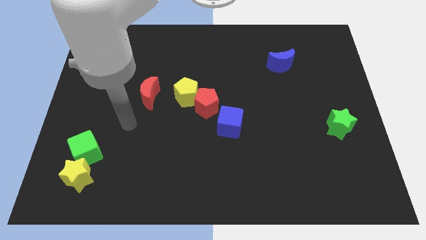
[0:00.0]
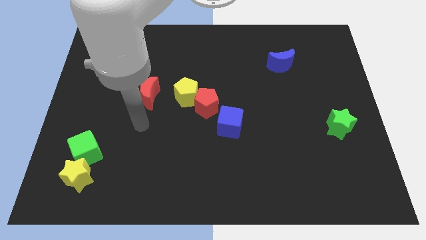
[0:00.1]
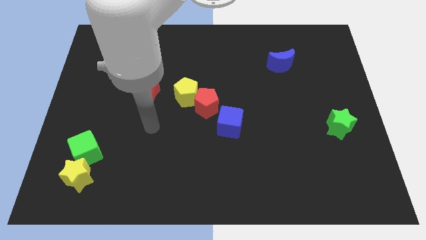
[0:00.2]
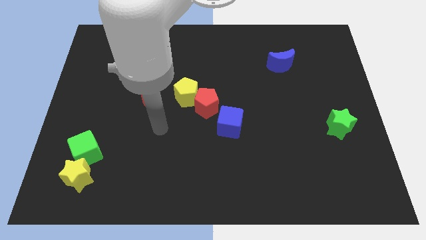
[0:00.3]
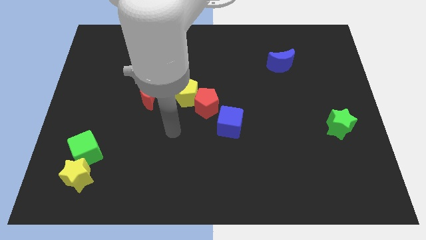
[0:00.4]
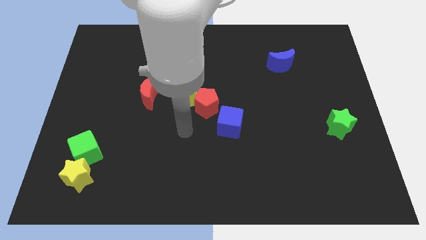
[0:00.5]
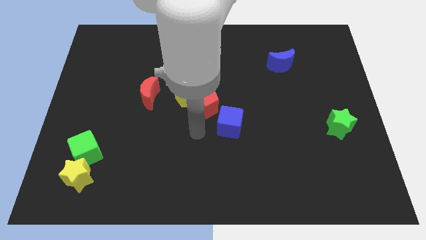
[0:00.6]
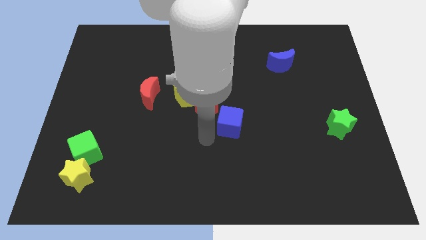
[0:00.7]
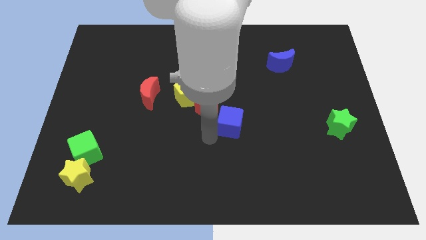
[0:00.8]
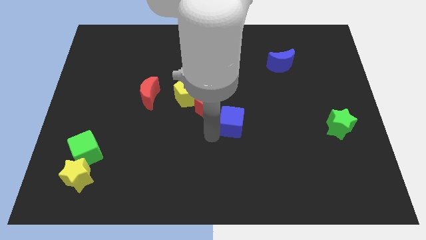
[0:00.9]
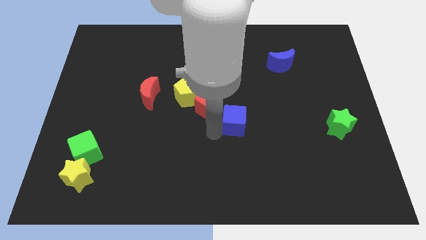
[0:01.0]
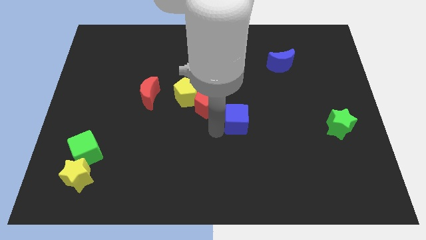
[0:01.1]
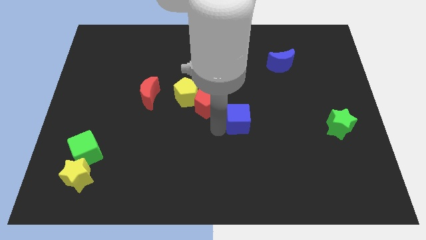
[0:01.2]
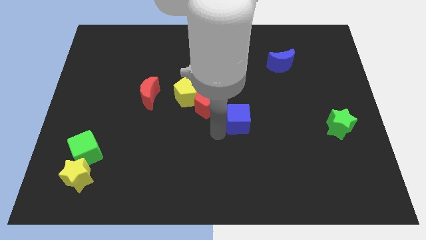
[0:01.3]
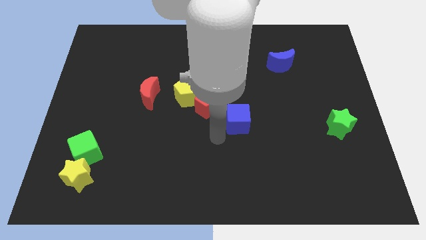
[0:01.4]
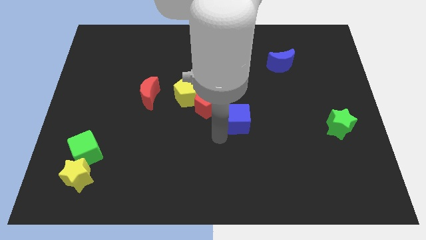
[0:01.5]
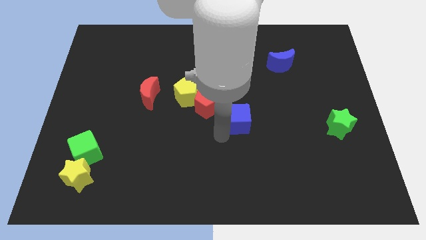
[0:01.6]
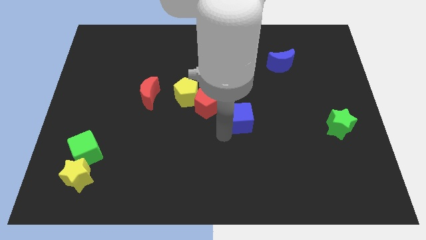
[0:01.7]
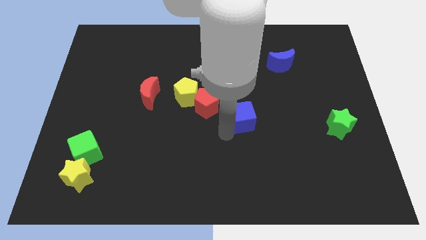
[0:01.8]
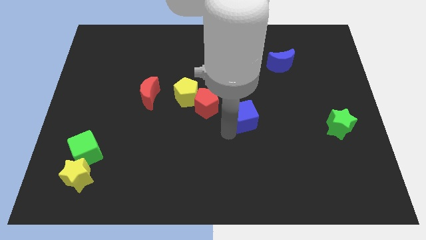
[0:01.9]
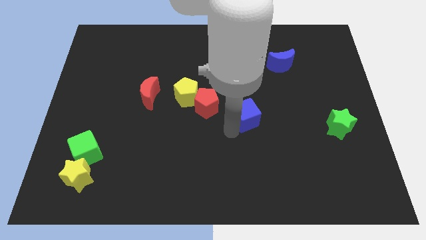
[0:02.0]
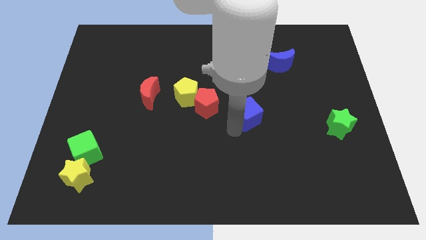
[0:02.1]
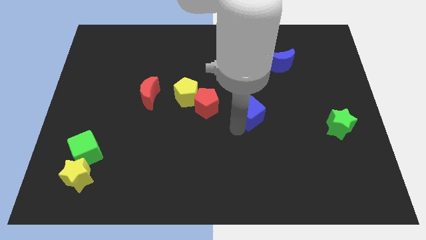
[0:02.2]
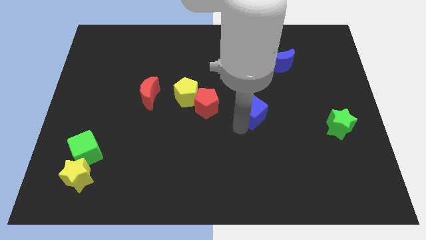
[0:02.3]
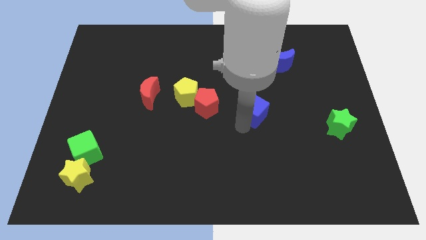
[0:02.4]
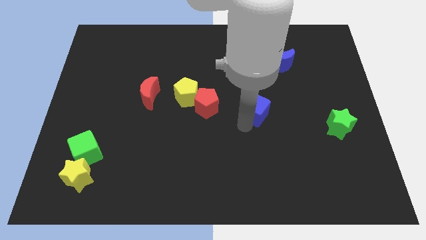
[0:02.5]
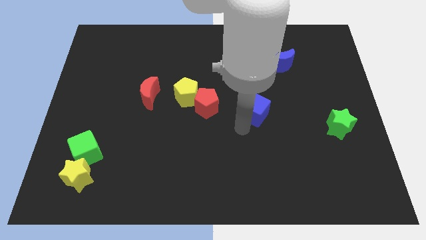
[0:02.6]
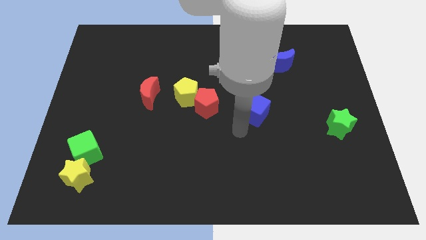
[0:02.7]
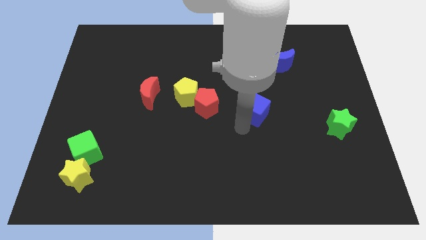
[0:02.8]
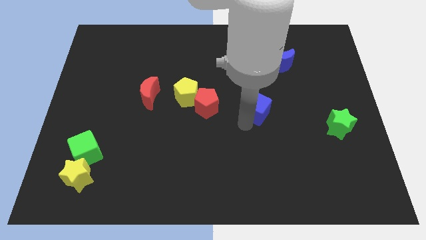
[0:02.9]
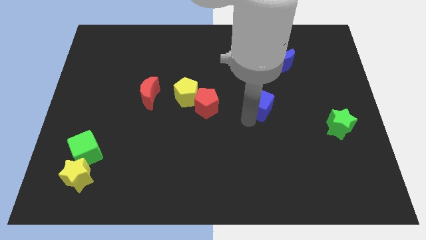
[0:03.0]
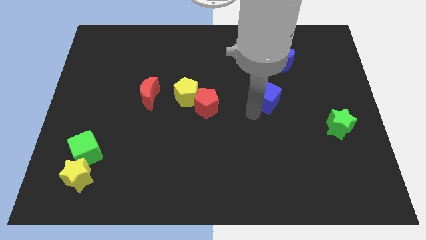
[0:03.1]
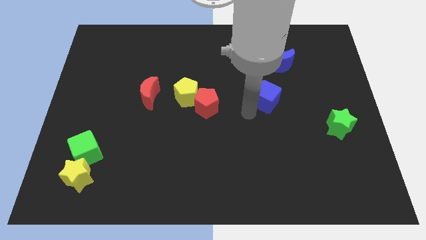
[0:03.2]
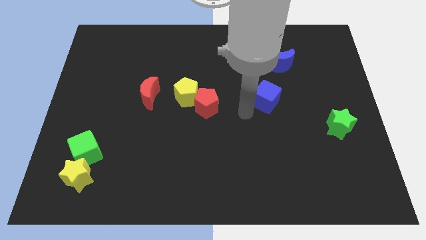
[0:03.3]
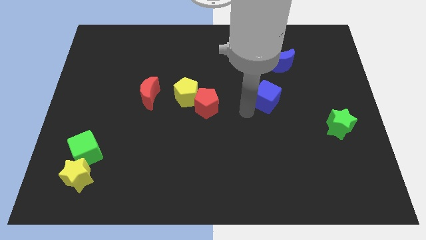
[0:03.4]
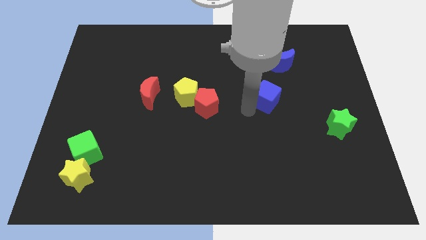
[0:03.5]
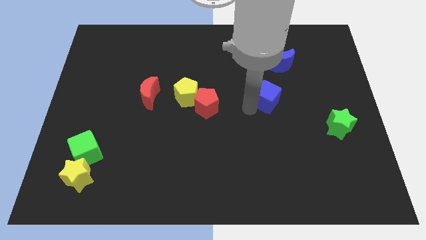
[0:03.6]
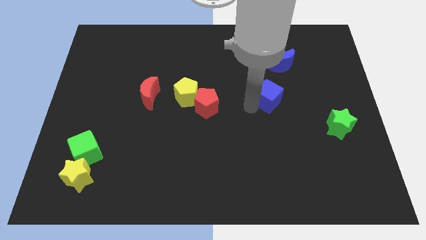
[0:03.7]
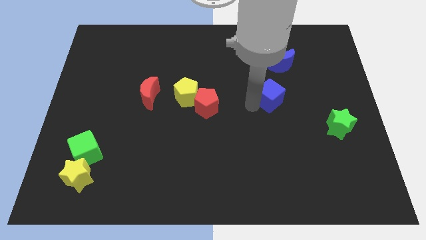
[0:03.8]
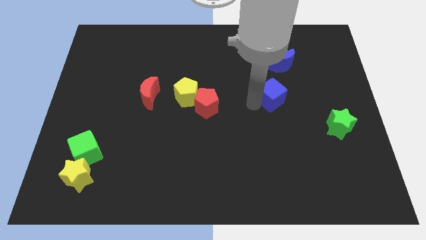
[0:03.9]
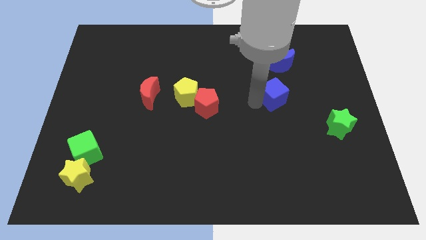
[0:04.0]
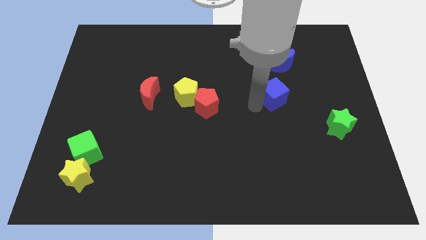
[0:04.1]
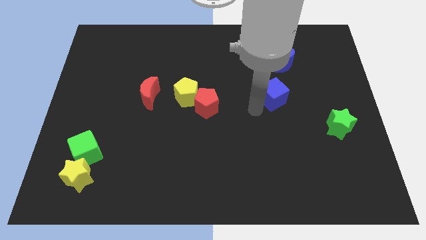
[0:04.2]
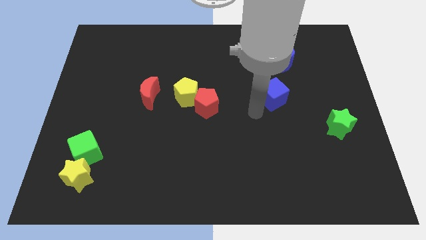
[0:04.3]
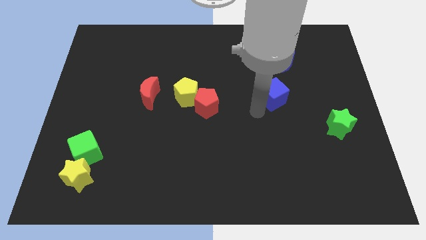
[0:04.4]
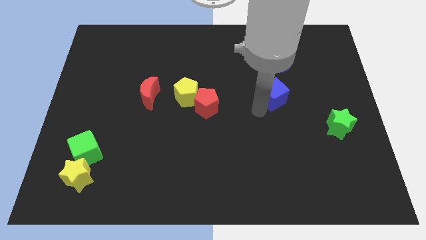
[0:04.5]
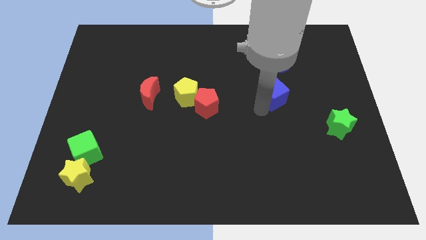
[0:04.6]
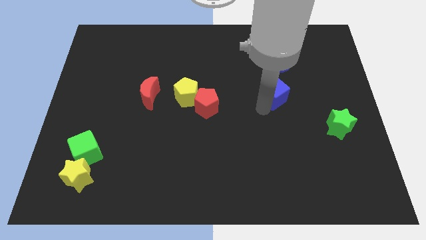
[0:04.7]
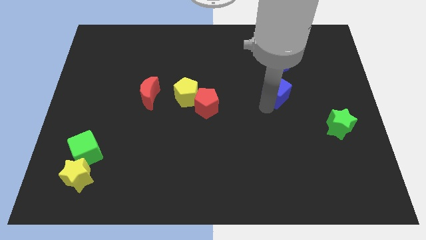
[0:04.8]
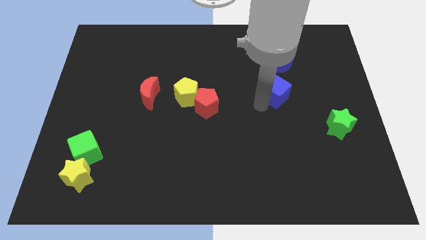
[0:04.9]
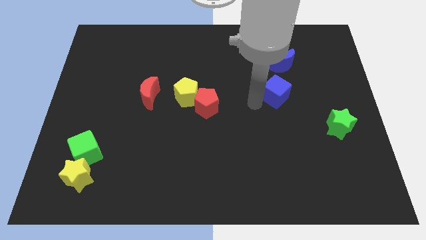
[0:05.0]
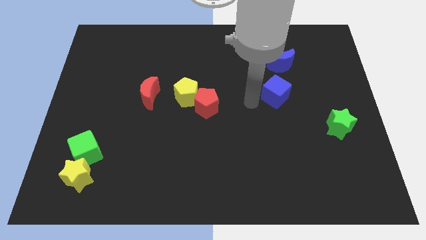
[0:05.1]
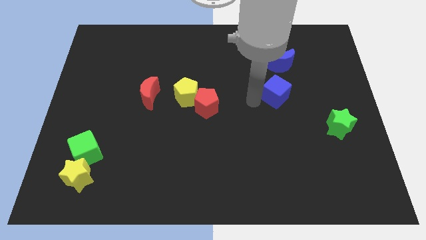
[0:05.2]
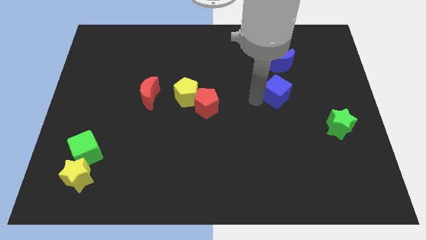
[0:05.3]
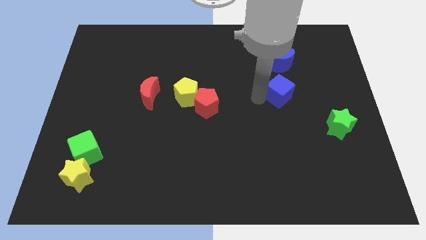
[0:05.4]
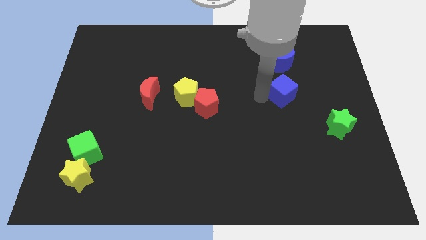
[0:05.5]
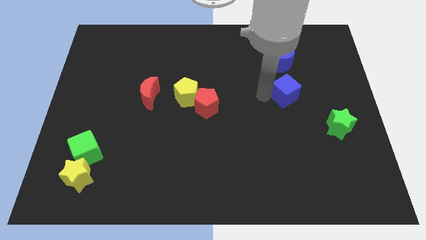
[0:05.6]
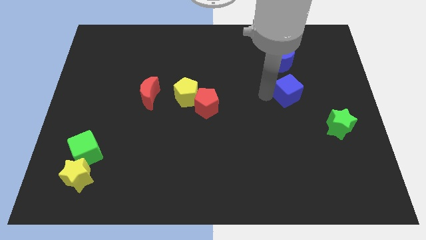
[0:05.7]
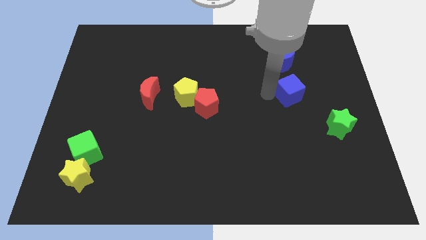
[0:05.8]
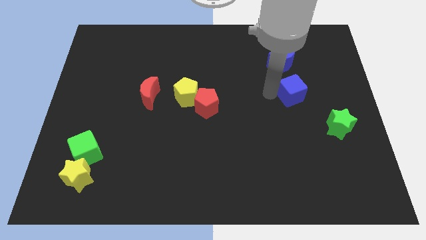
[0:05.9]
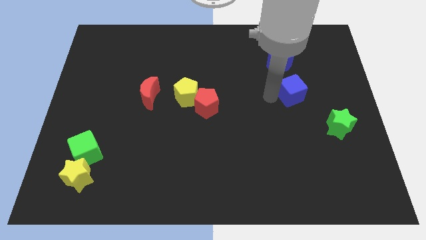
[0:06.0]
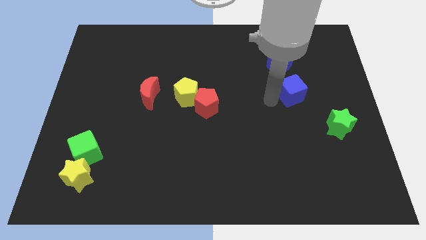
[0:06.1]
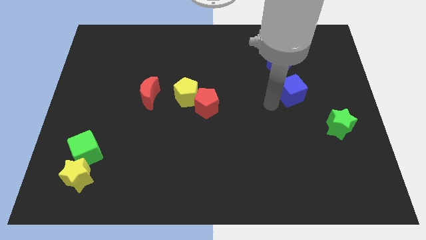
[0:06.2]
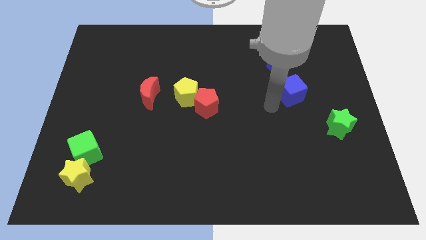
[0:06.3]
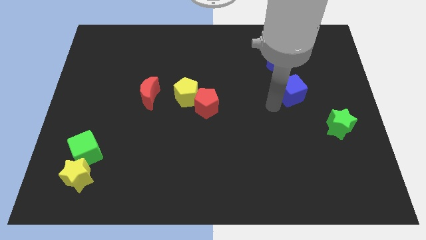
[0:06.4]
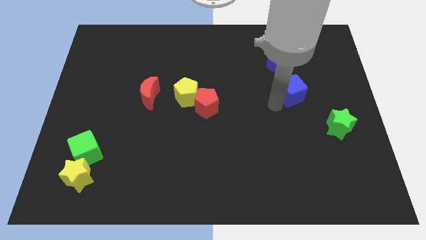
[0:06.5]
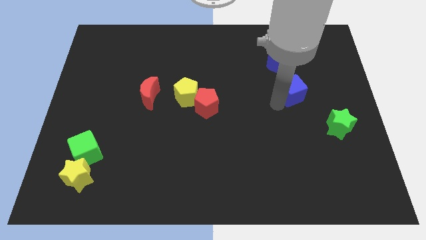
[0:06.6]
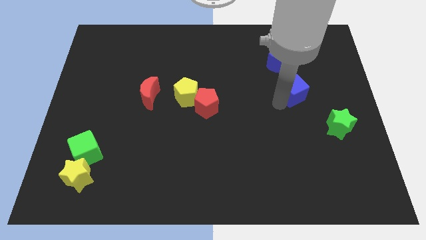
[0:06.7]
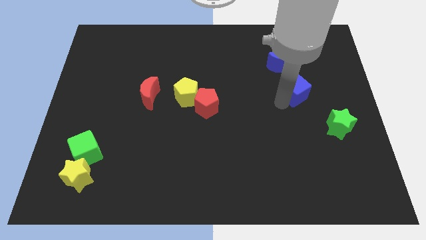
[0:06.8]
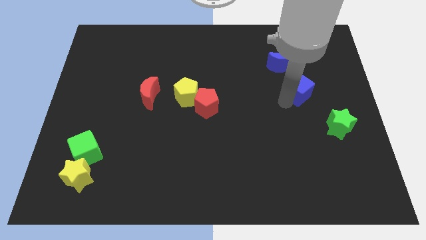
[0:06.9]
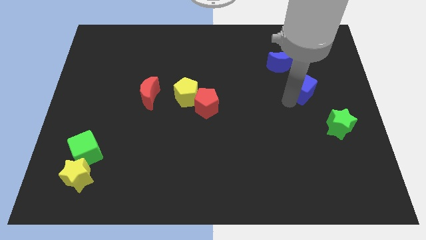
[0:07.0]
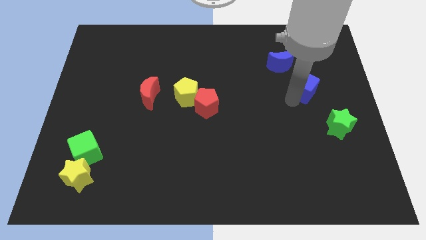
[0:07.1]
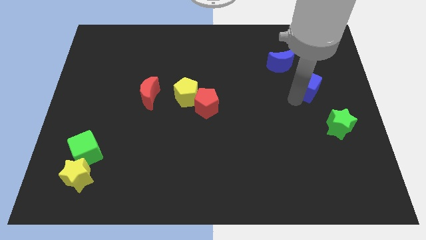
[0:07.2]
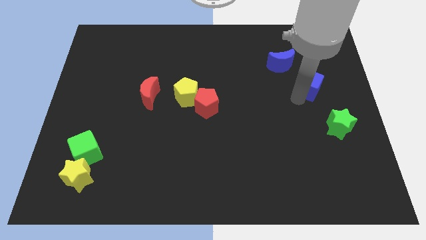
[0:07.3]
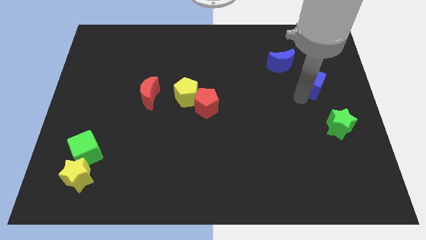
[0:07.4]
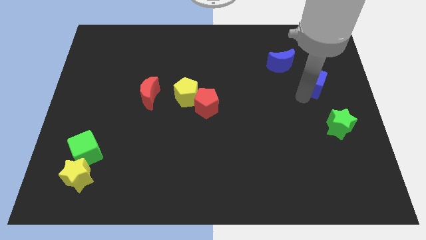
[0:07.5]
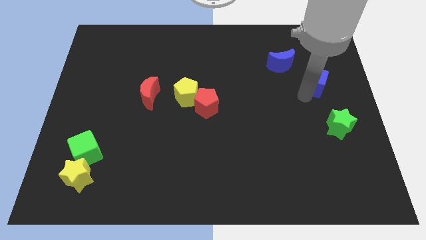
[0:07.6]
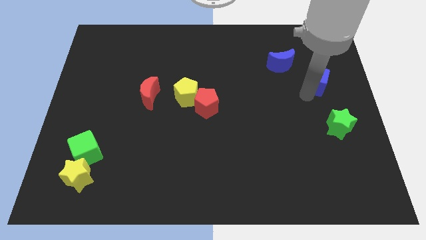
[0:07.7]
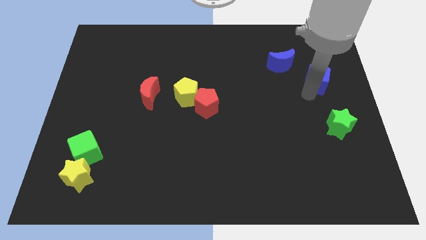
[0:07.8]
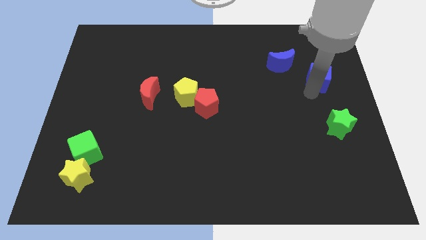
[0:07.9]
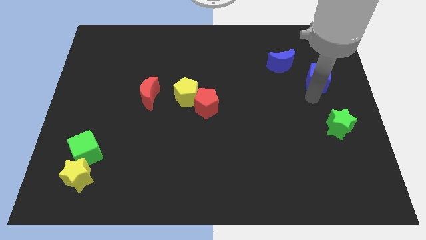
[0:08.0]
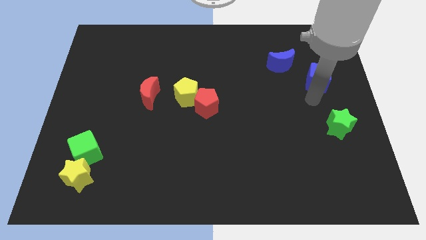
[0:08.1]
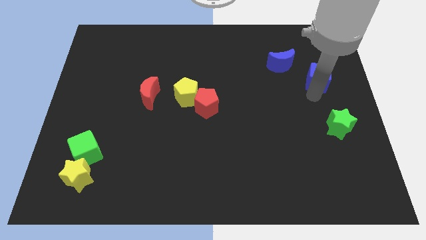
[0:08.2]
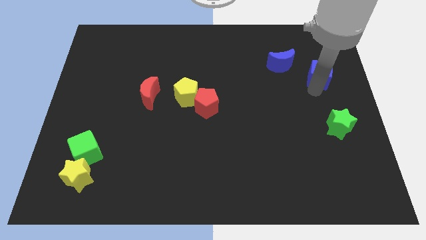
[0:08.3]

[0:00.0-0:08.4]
put the blue cube to the right of the blue moon
